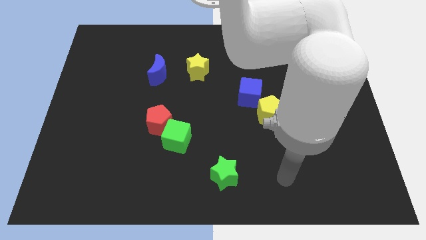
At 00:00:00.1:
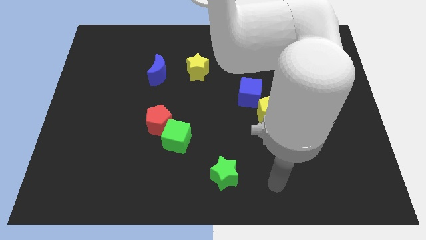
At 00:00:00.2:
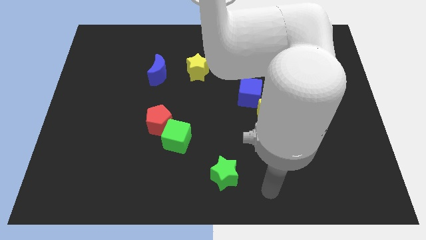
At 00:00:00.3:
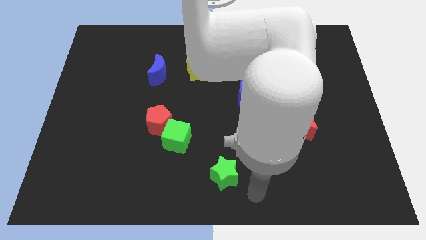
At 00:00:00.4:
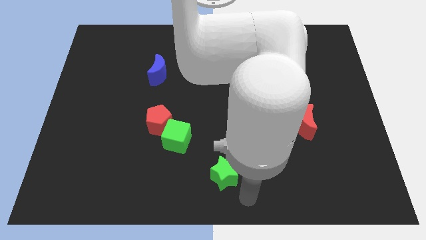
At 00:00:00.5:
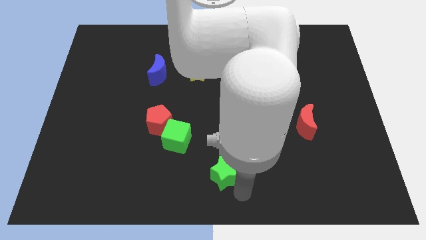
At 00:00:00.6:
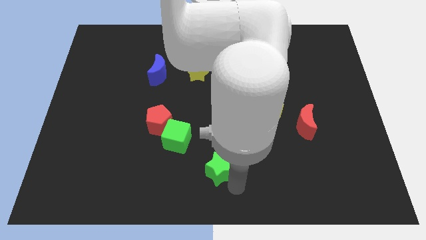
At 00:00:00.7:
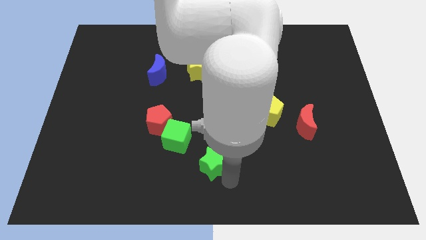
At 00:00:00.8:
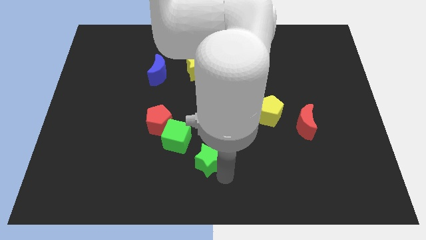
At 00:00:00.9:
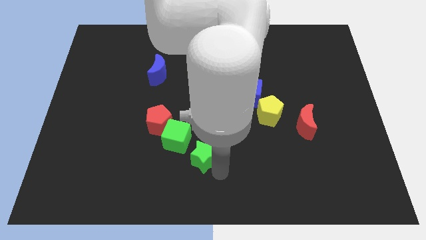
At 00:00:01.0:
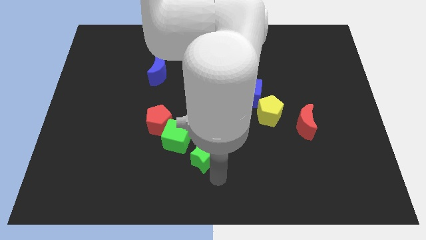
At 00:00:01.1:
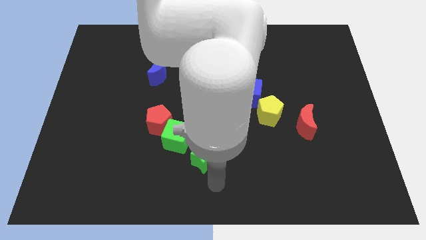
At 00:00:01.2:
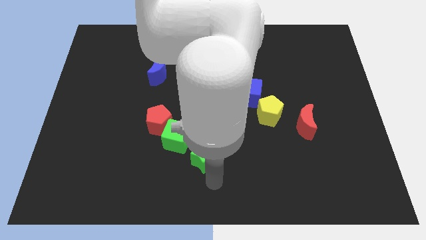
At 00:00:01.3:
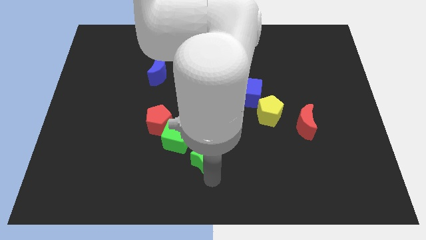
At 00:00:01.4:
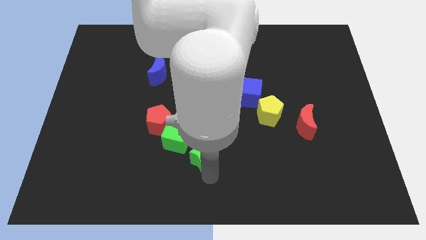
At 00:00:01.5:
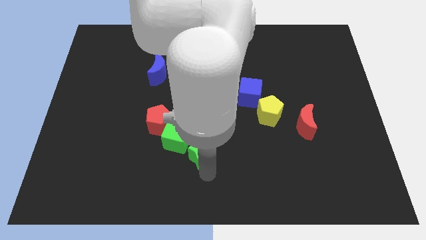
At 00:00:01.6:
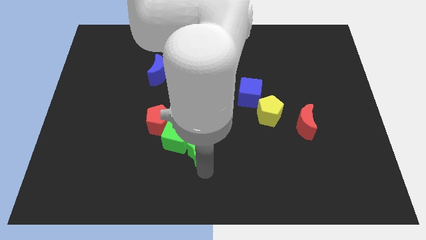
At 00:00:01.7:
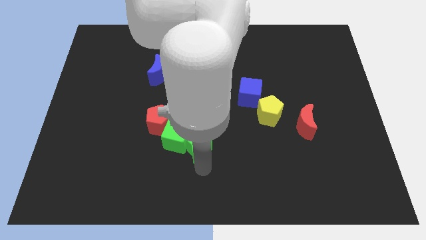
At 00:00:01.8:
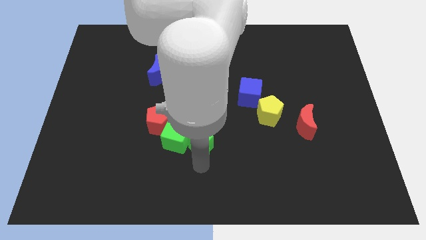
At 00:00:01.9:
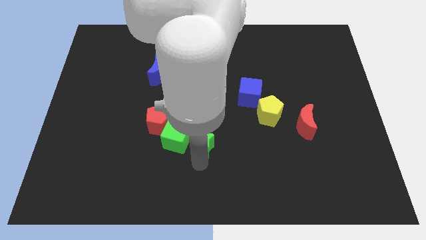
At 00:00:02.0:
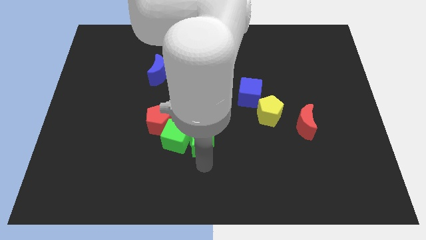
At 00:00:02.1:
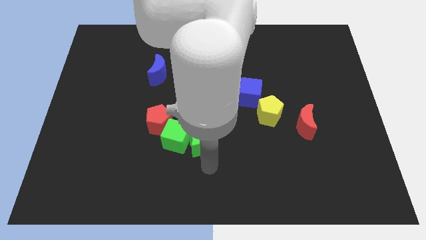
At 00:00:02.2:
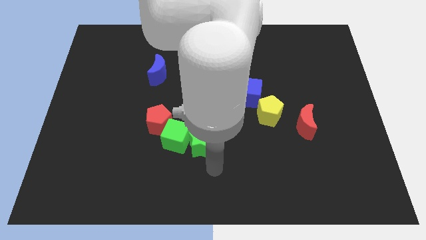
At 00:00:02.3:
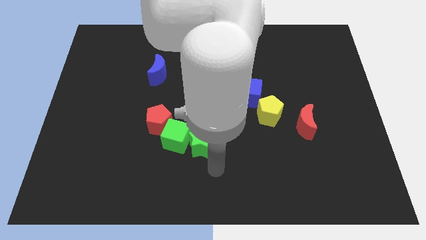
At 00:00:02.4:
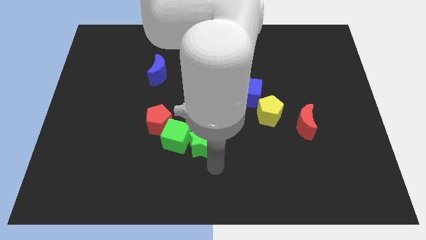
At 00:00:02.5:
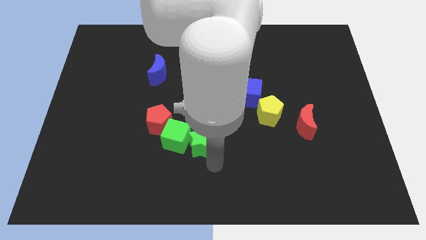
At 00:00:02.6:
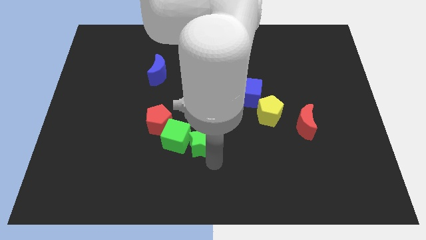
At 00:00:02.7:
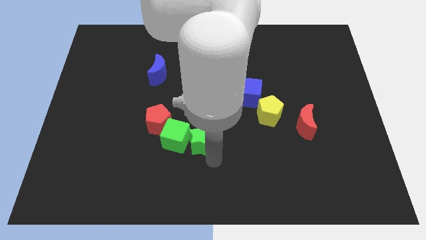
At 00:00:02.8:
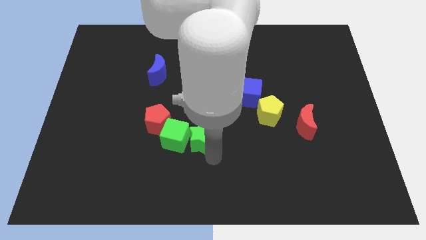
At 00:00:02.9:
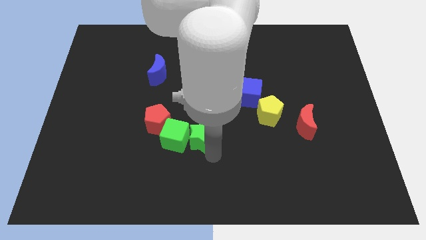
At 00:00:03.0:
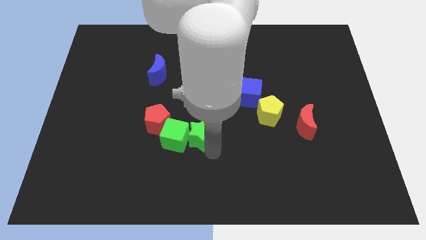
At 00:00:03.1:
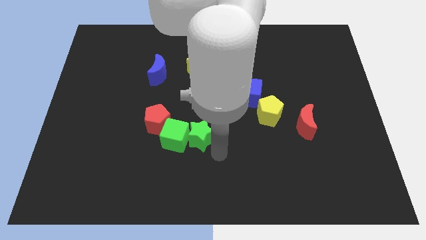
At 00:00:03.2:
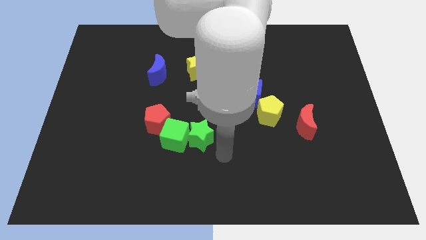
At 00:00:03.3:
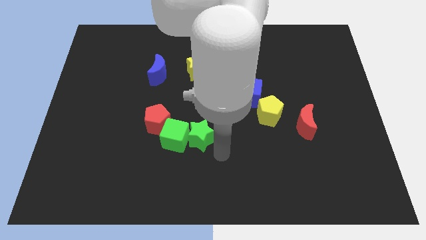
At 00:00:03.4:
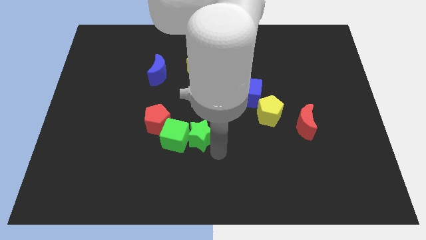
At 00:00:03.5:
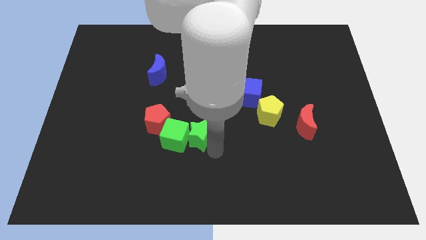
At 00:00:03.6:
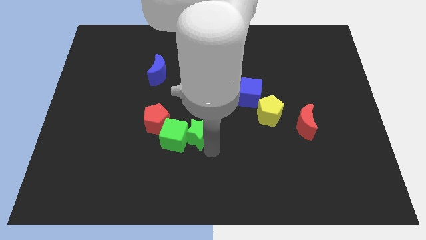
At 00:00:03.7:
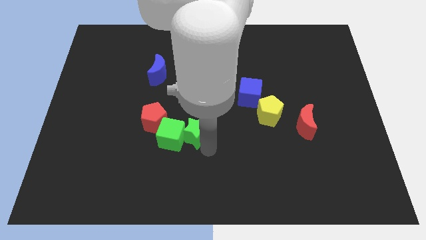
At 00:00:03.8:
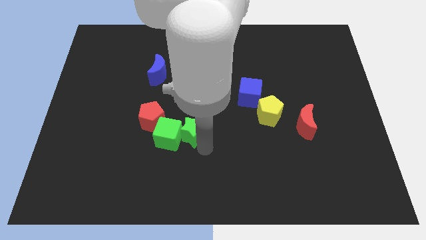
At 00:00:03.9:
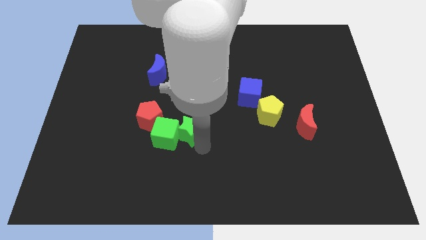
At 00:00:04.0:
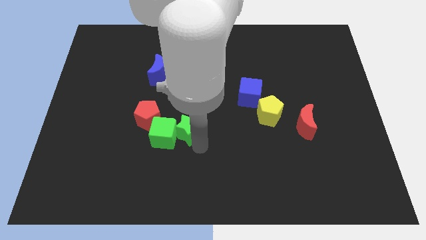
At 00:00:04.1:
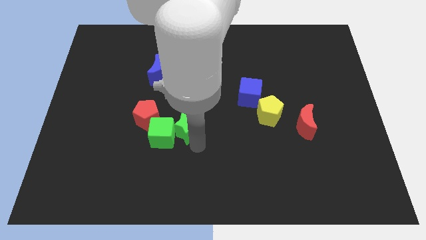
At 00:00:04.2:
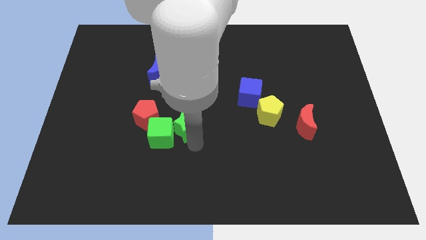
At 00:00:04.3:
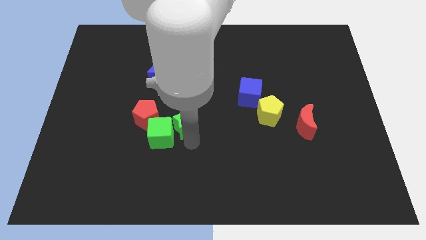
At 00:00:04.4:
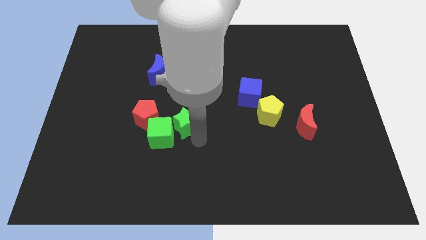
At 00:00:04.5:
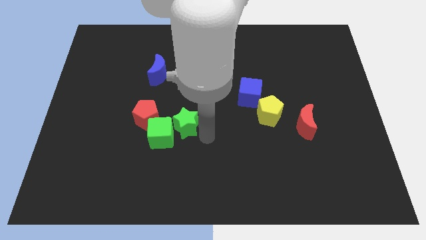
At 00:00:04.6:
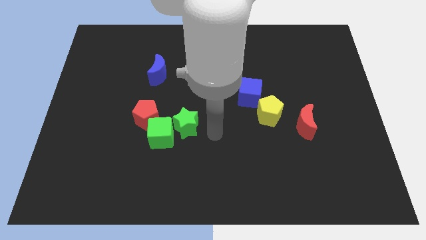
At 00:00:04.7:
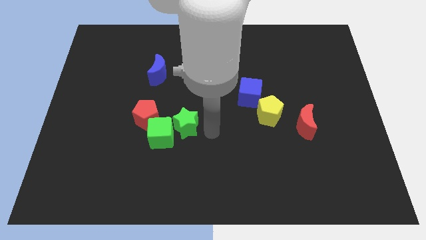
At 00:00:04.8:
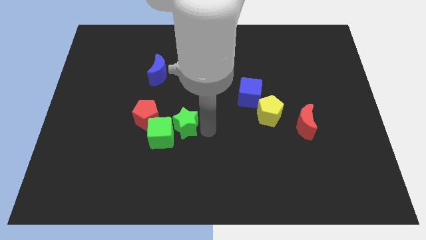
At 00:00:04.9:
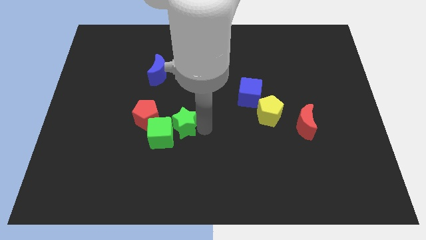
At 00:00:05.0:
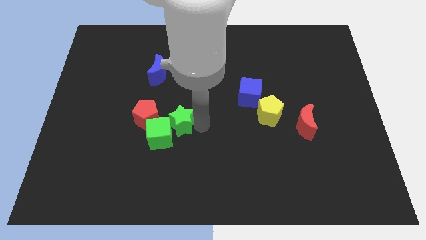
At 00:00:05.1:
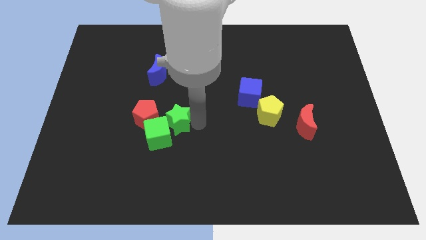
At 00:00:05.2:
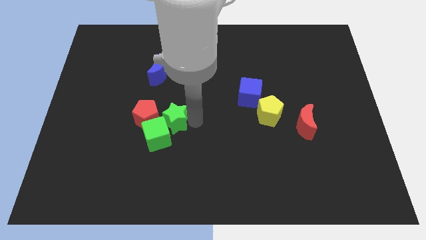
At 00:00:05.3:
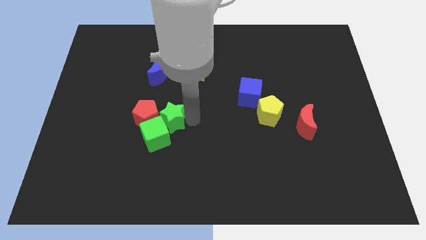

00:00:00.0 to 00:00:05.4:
slide the green star towards the red pentagon

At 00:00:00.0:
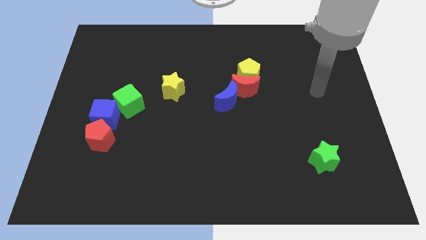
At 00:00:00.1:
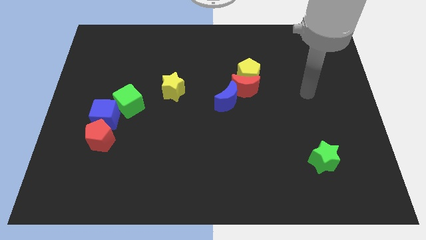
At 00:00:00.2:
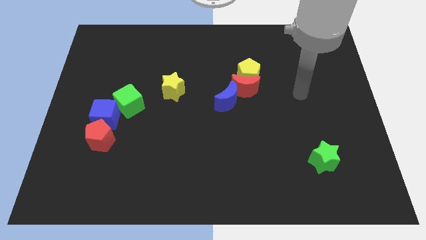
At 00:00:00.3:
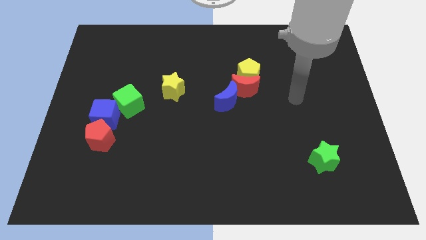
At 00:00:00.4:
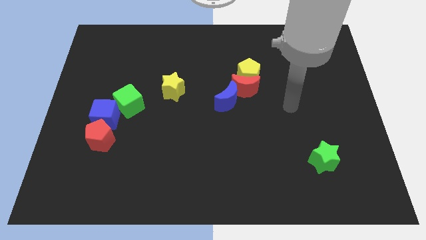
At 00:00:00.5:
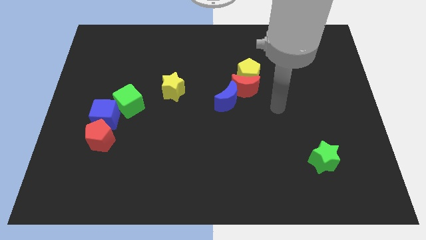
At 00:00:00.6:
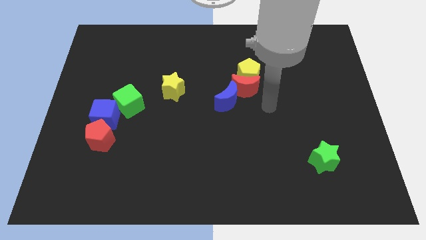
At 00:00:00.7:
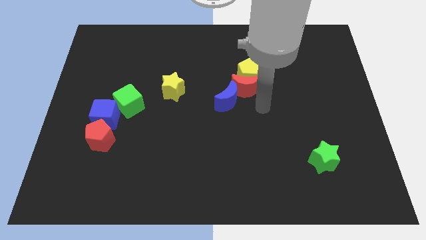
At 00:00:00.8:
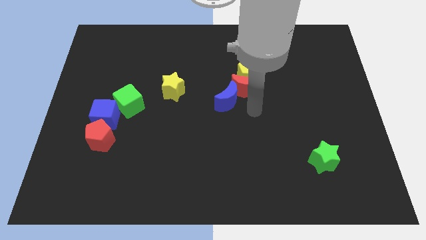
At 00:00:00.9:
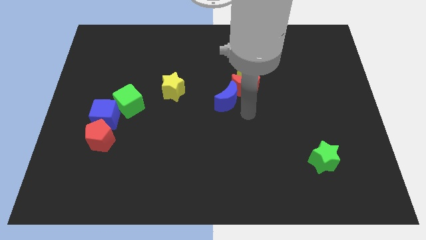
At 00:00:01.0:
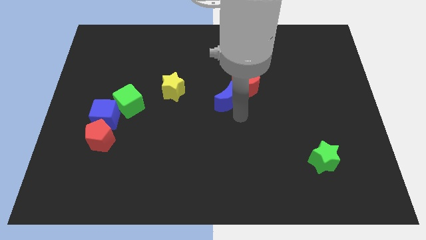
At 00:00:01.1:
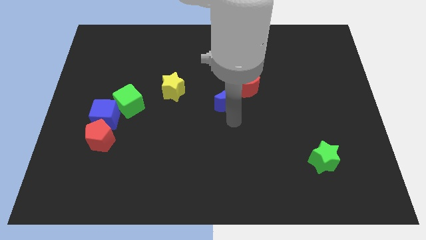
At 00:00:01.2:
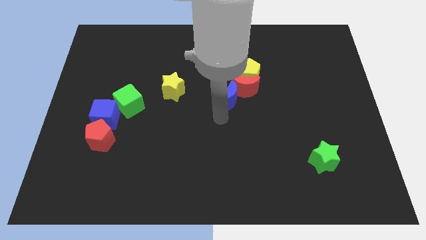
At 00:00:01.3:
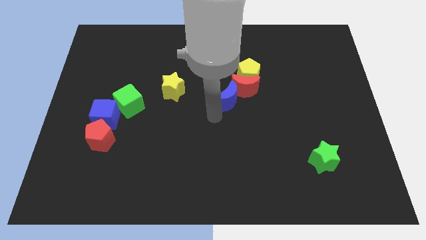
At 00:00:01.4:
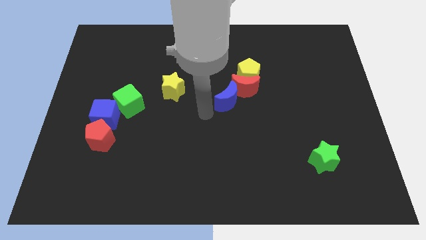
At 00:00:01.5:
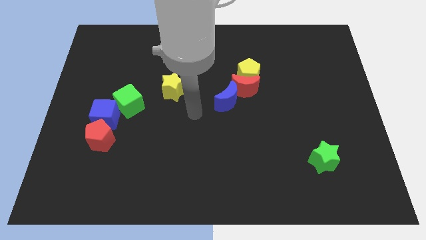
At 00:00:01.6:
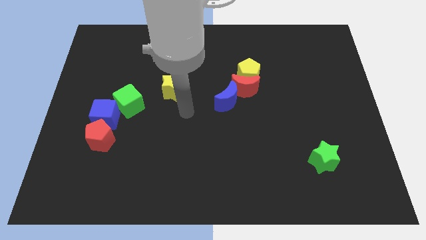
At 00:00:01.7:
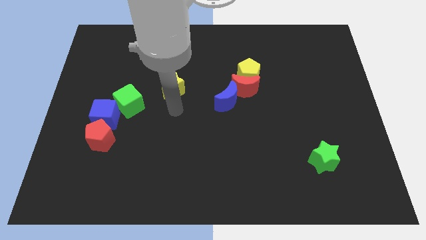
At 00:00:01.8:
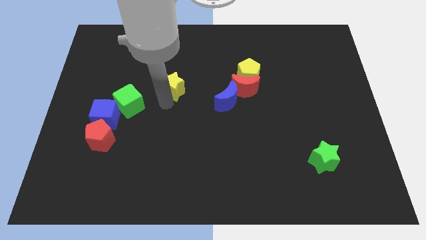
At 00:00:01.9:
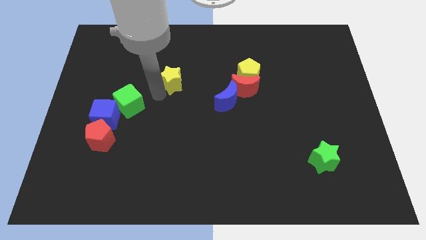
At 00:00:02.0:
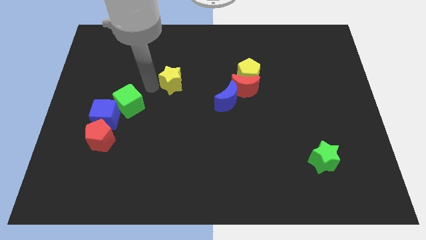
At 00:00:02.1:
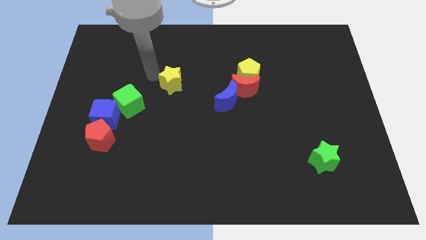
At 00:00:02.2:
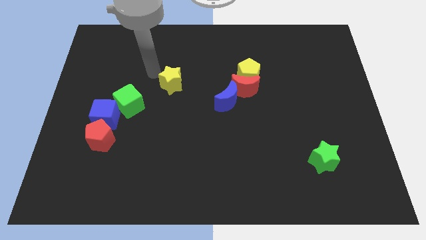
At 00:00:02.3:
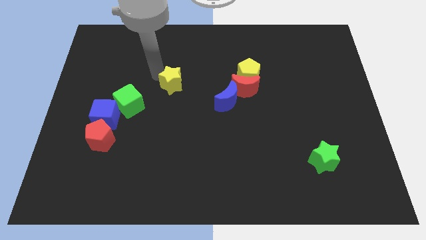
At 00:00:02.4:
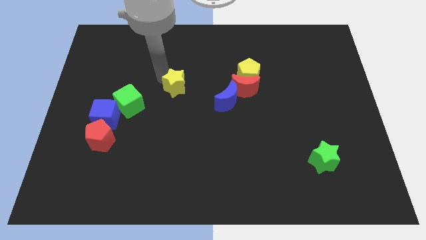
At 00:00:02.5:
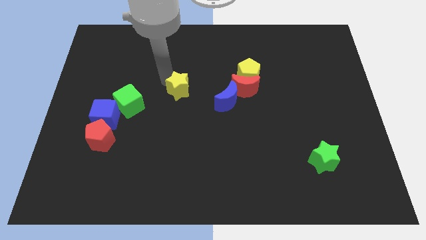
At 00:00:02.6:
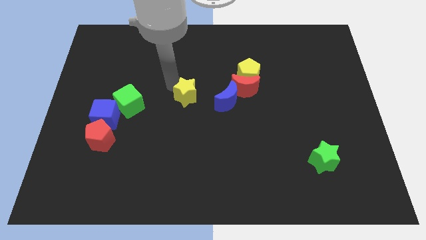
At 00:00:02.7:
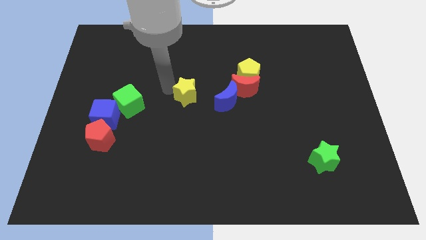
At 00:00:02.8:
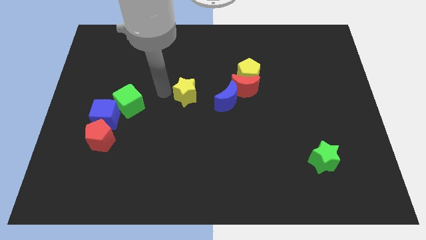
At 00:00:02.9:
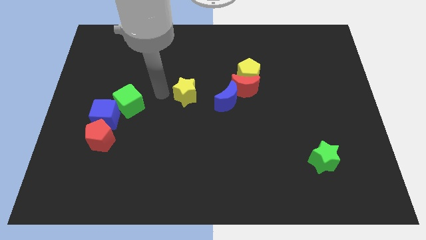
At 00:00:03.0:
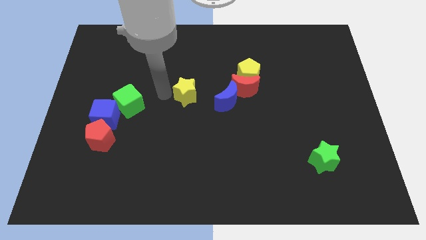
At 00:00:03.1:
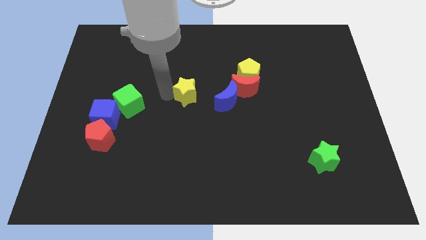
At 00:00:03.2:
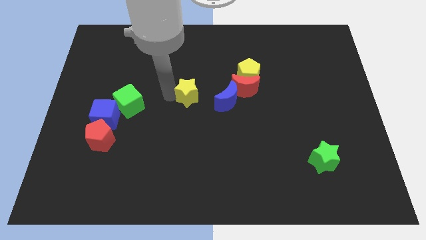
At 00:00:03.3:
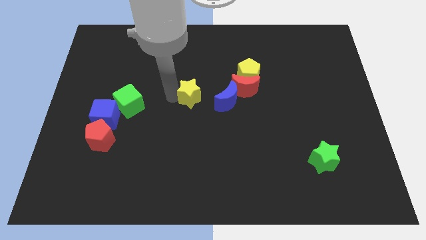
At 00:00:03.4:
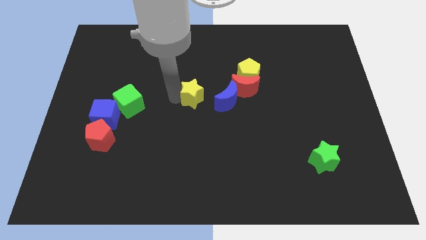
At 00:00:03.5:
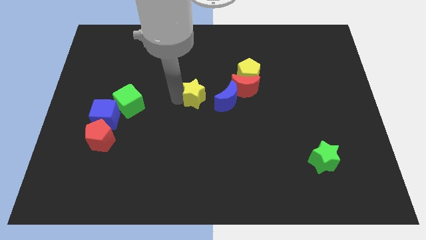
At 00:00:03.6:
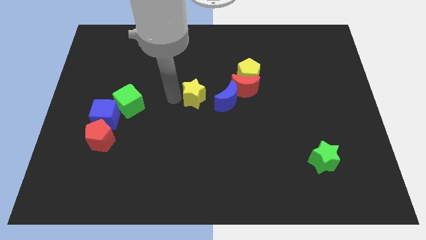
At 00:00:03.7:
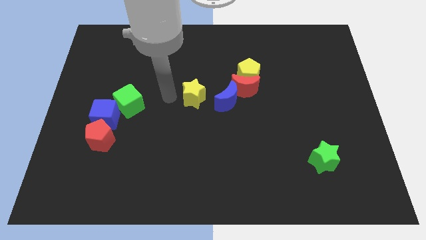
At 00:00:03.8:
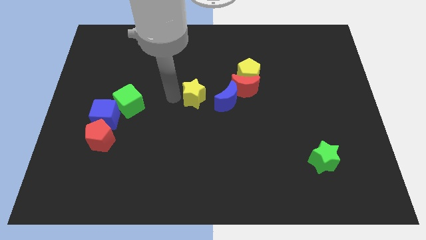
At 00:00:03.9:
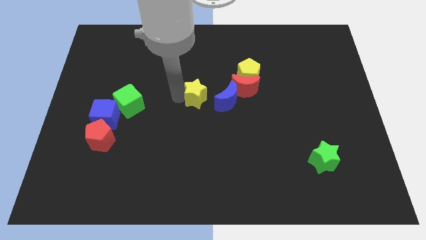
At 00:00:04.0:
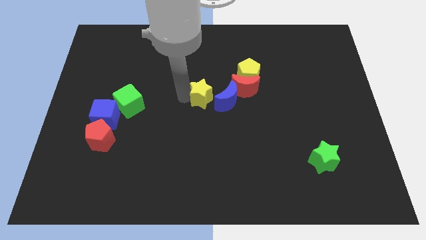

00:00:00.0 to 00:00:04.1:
put the yellow star to the blue moon
